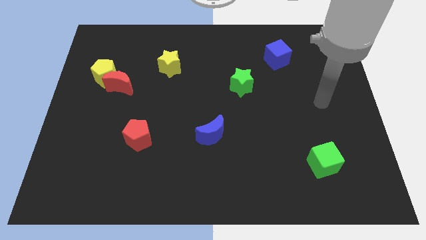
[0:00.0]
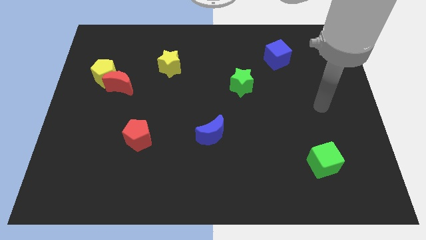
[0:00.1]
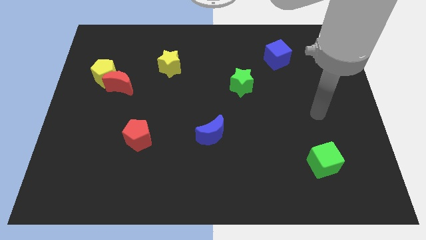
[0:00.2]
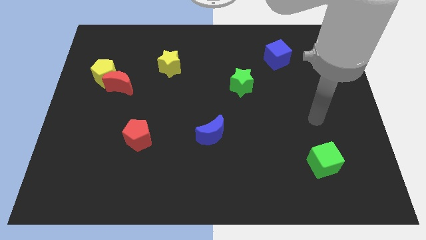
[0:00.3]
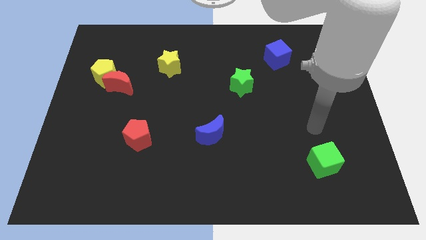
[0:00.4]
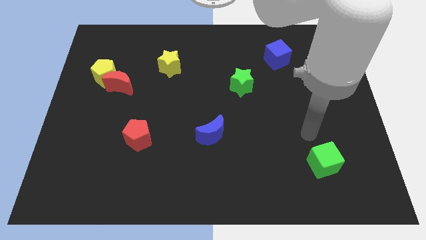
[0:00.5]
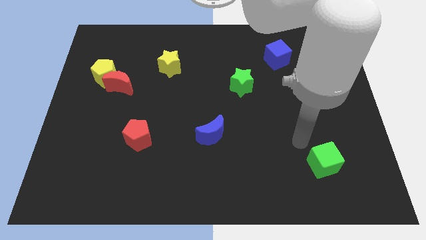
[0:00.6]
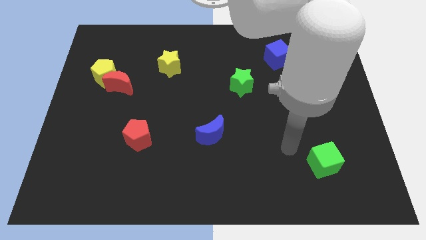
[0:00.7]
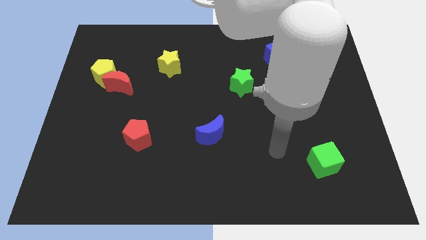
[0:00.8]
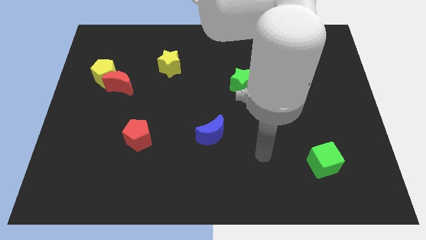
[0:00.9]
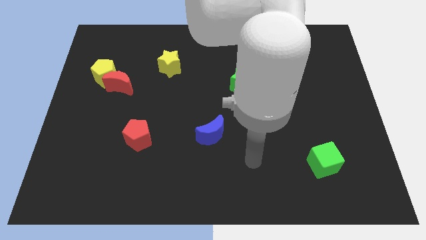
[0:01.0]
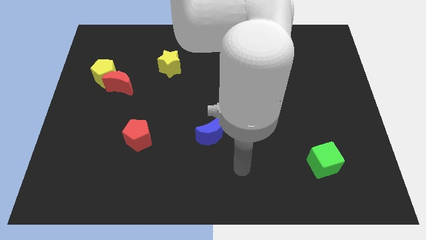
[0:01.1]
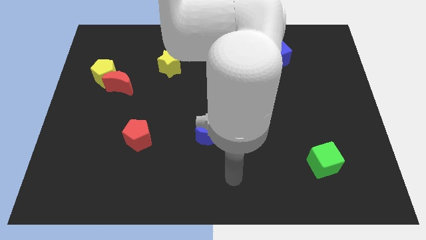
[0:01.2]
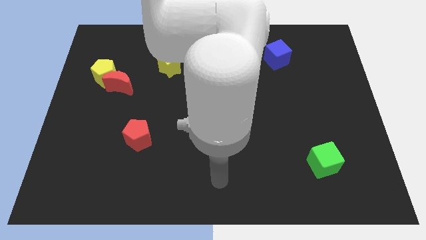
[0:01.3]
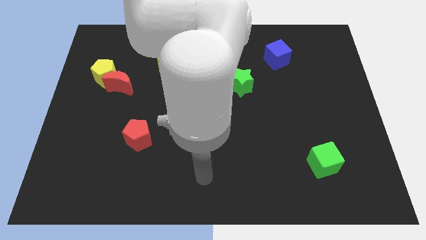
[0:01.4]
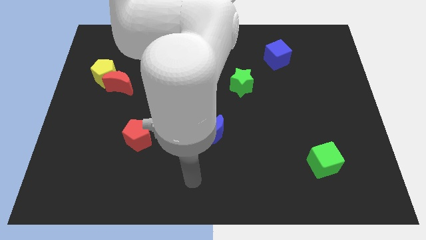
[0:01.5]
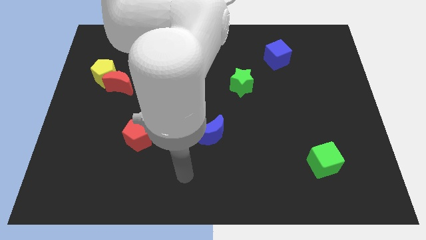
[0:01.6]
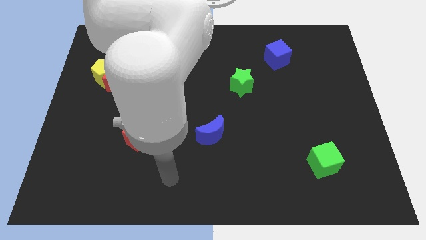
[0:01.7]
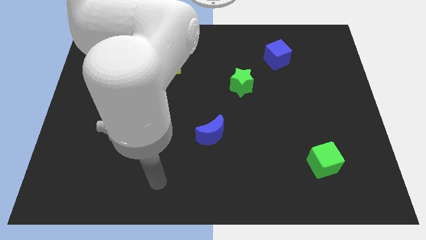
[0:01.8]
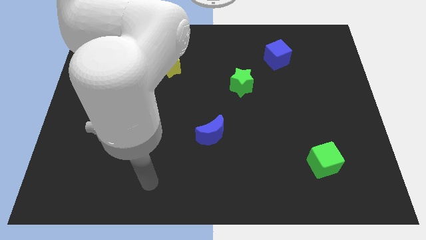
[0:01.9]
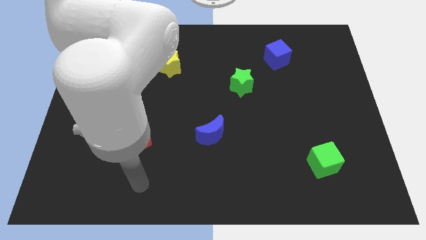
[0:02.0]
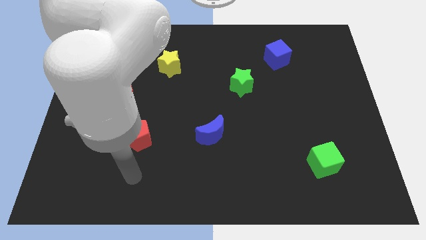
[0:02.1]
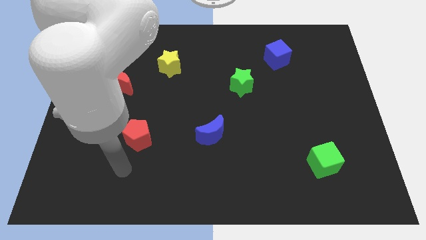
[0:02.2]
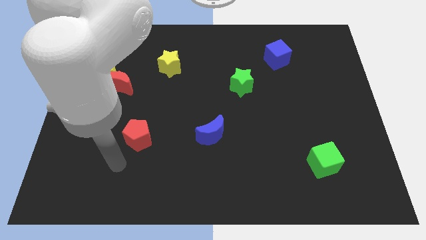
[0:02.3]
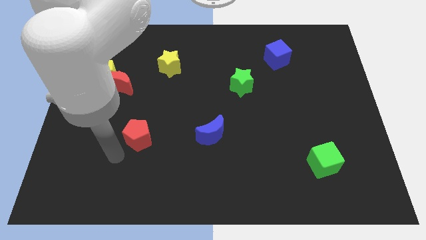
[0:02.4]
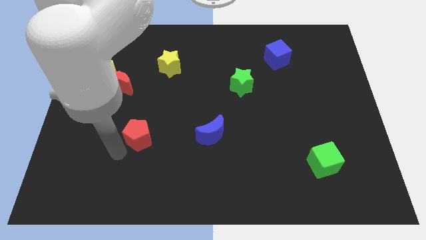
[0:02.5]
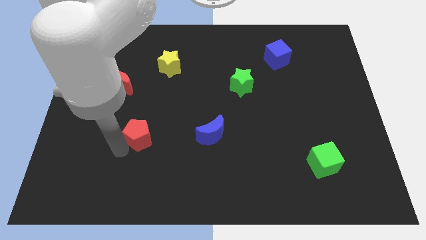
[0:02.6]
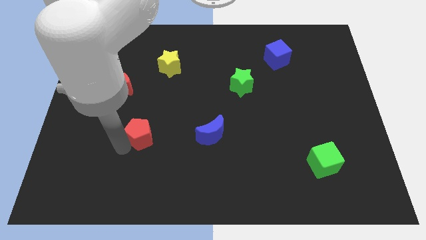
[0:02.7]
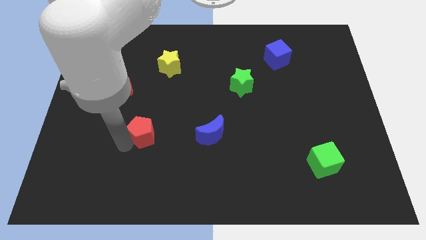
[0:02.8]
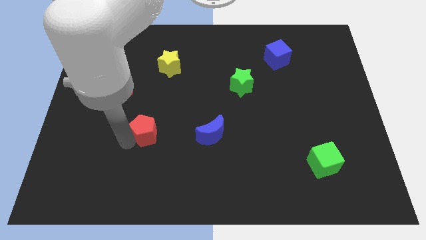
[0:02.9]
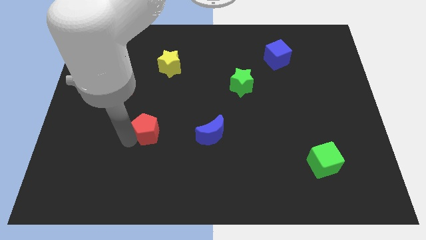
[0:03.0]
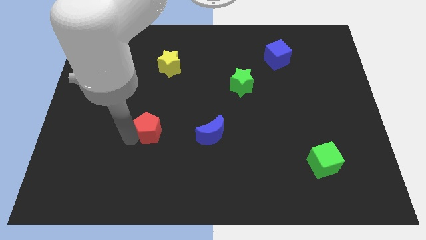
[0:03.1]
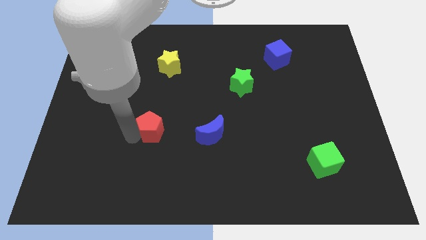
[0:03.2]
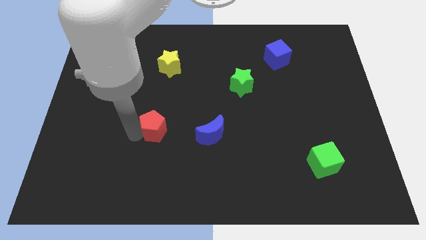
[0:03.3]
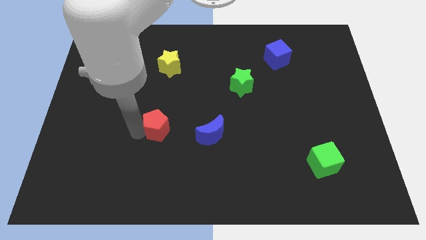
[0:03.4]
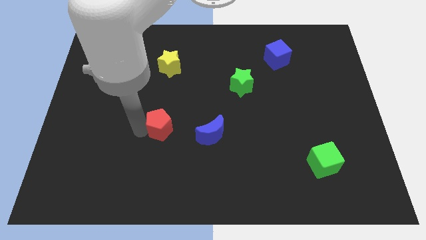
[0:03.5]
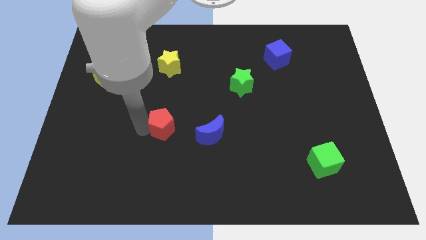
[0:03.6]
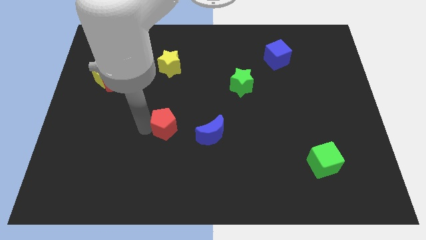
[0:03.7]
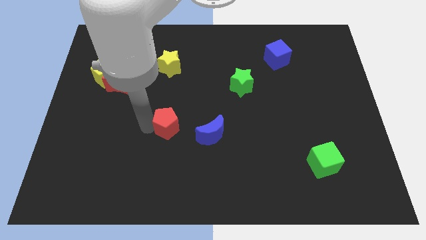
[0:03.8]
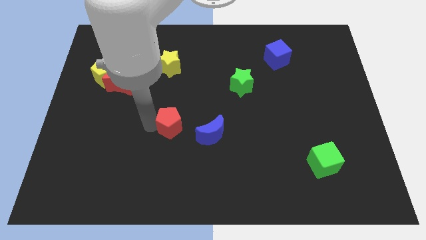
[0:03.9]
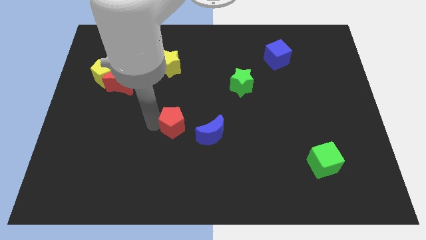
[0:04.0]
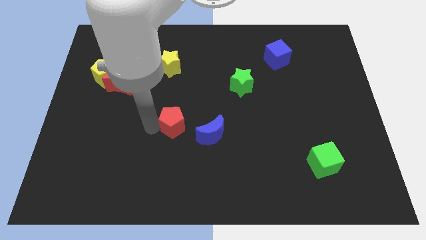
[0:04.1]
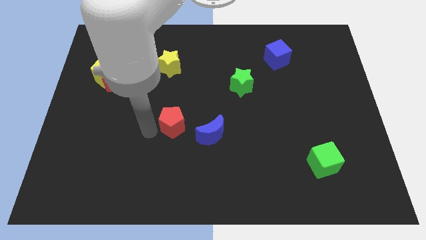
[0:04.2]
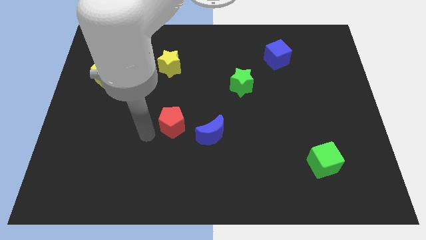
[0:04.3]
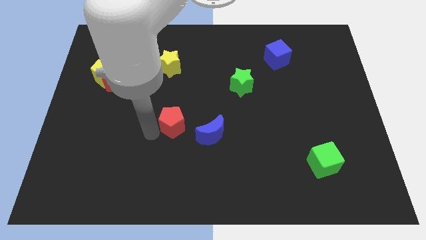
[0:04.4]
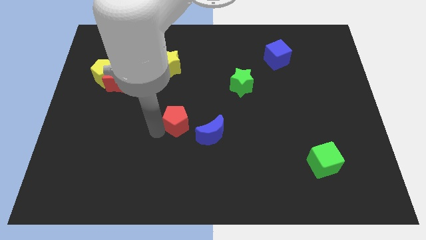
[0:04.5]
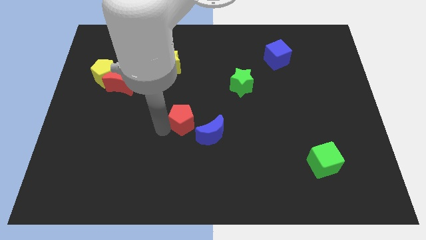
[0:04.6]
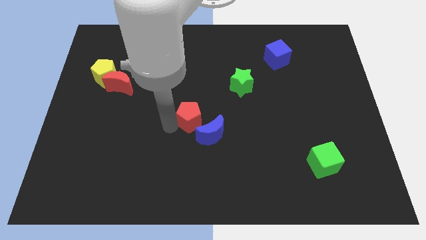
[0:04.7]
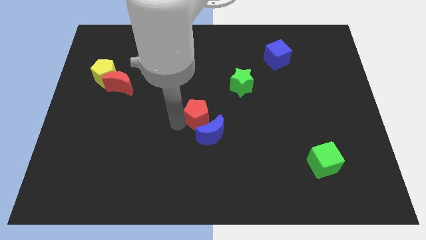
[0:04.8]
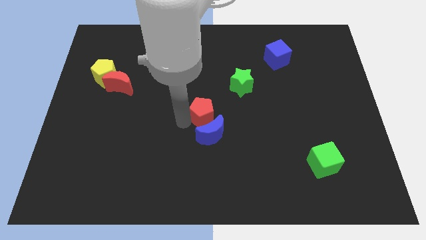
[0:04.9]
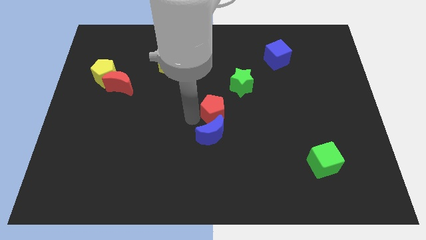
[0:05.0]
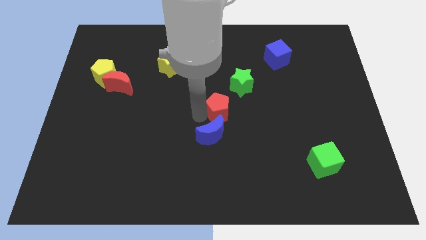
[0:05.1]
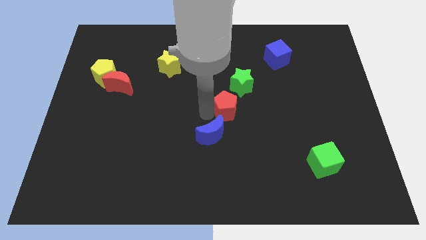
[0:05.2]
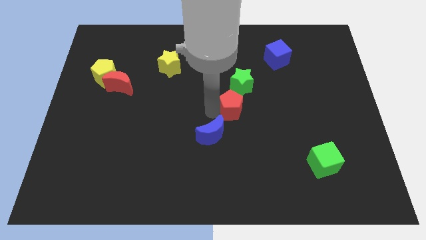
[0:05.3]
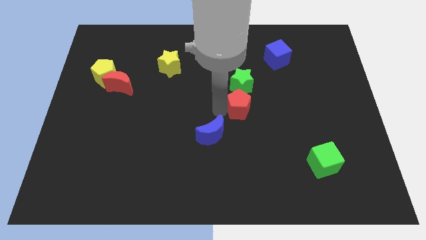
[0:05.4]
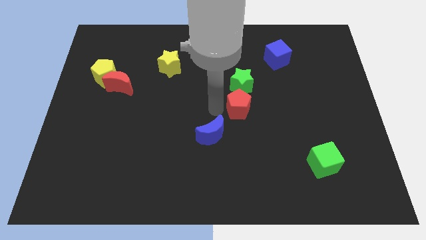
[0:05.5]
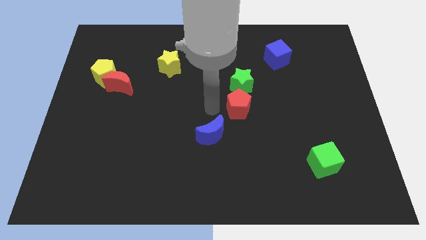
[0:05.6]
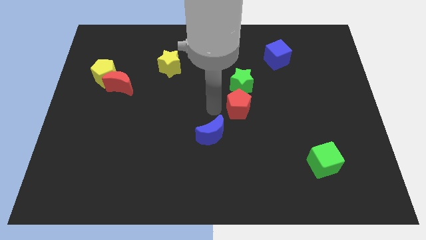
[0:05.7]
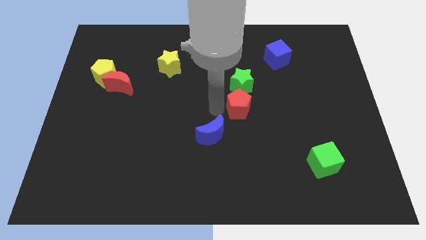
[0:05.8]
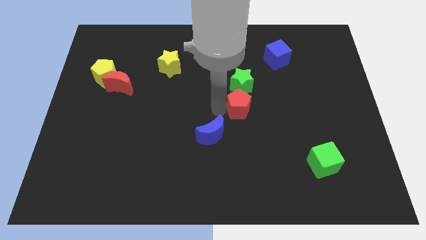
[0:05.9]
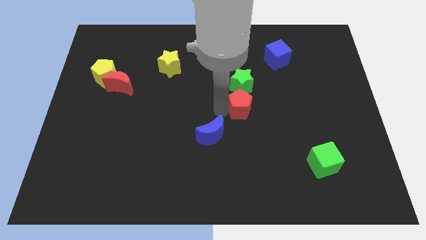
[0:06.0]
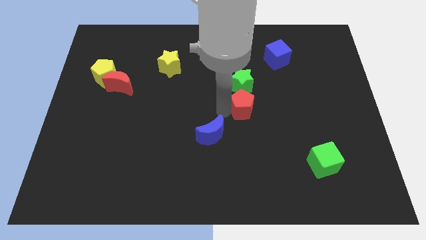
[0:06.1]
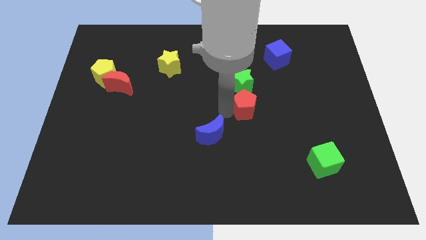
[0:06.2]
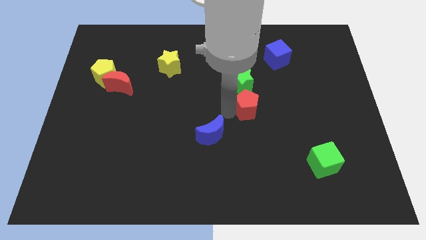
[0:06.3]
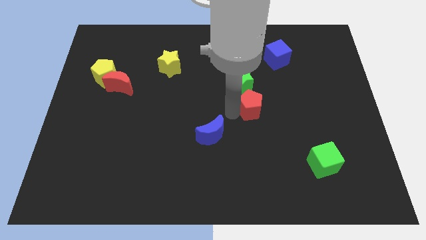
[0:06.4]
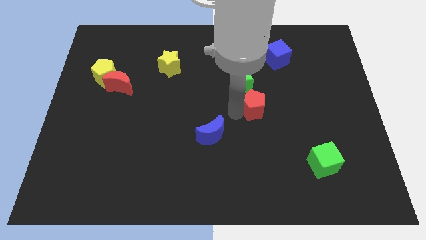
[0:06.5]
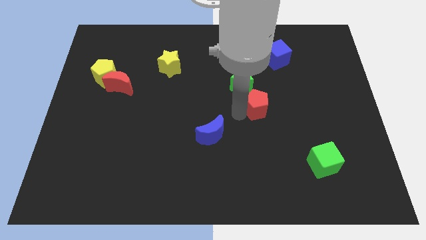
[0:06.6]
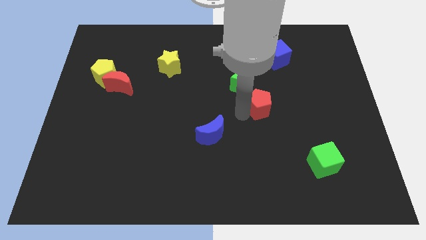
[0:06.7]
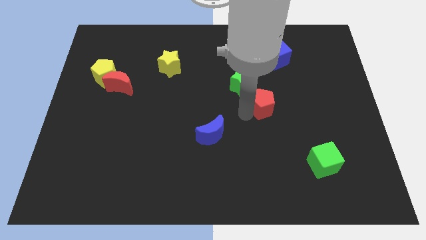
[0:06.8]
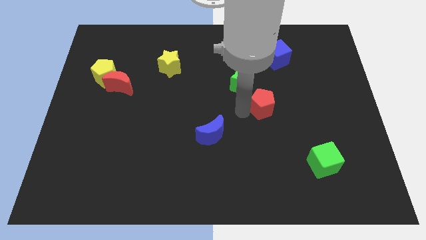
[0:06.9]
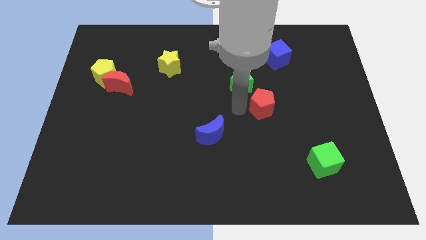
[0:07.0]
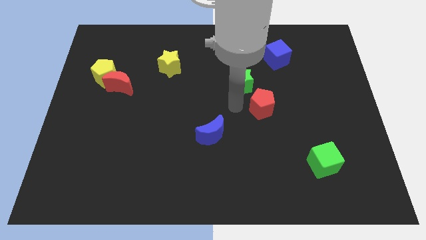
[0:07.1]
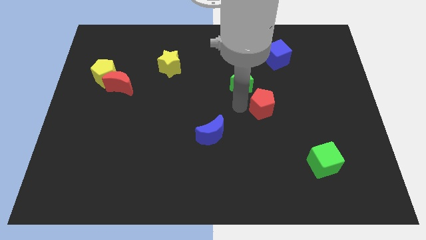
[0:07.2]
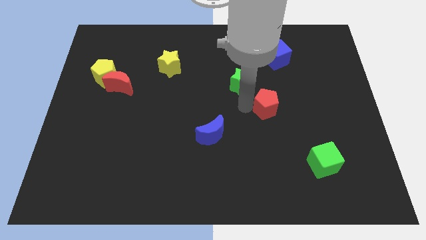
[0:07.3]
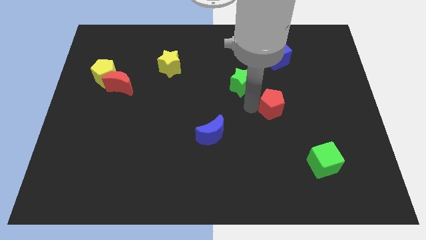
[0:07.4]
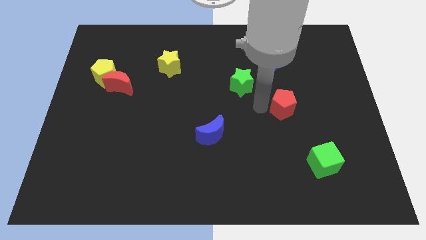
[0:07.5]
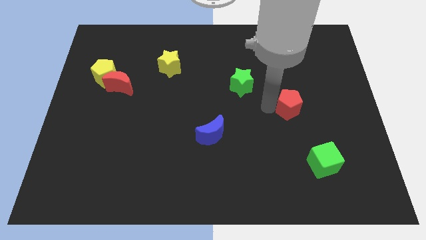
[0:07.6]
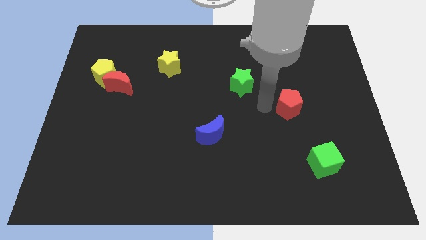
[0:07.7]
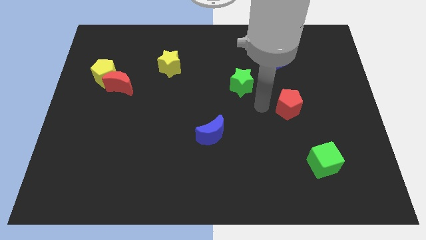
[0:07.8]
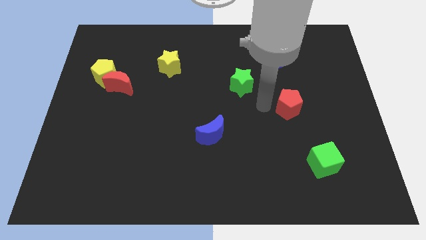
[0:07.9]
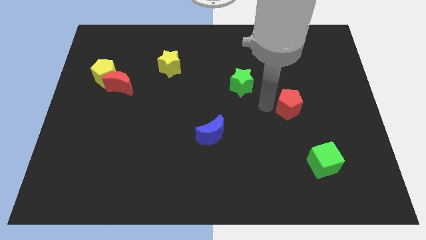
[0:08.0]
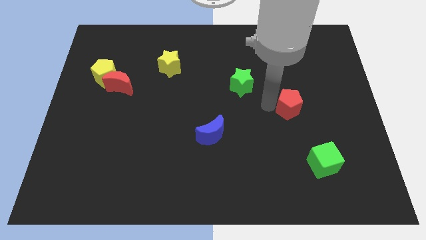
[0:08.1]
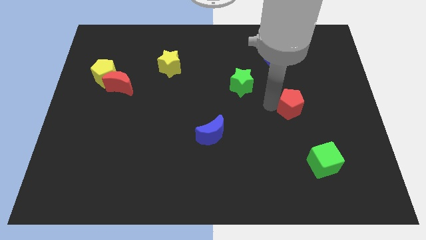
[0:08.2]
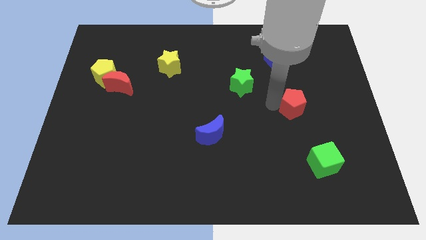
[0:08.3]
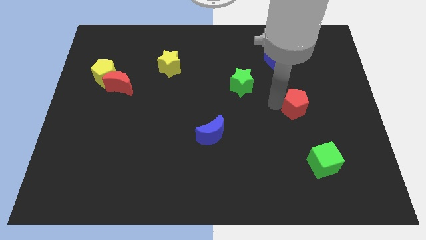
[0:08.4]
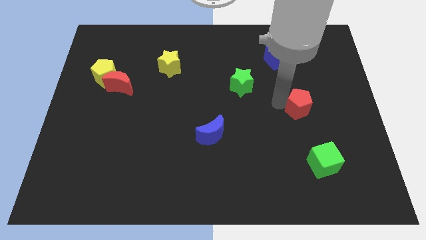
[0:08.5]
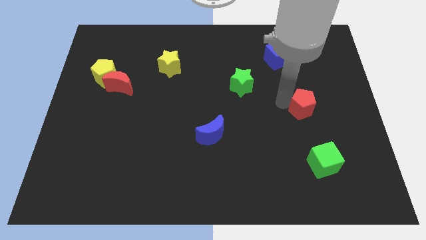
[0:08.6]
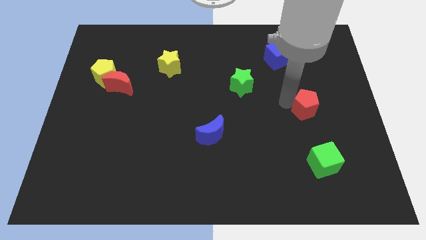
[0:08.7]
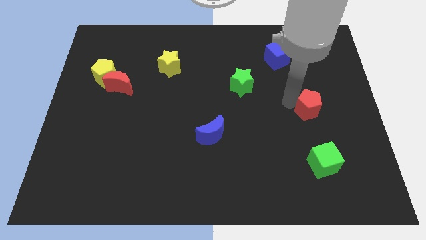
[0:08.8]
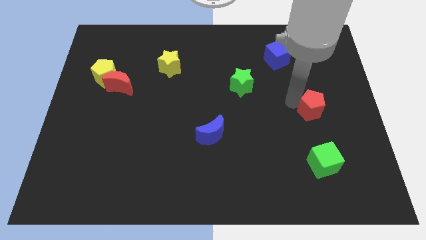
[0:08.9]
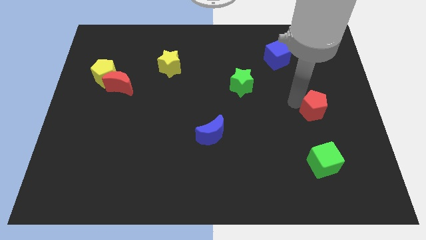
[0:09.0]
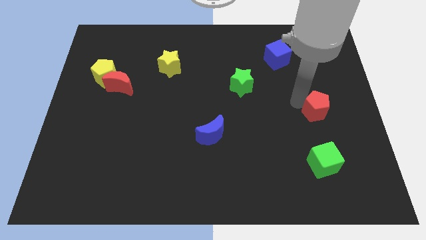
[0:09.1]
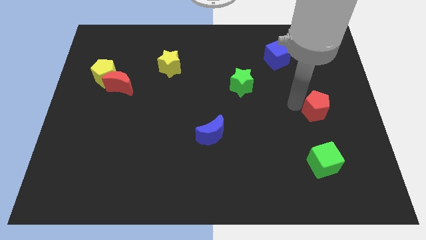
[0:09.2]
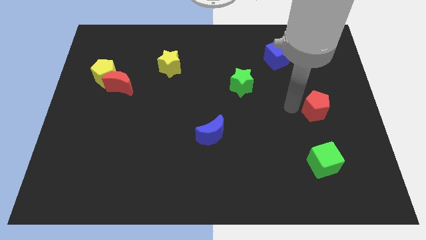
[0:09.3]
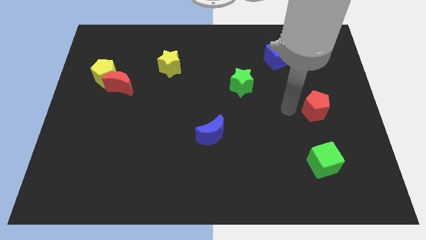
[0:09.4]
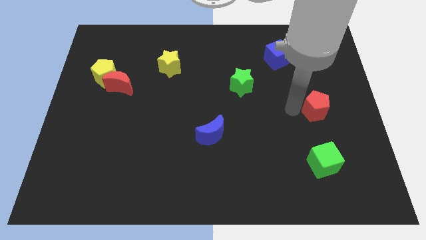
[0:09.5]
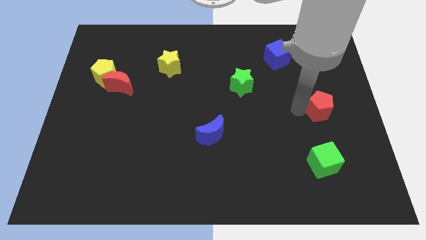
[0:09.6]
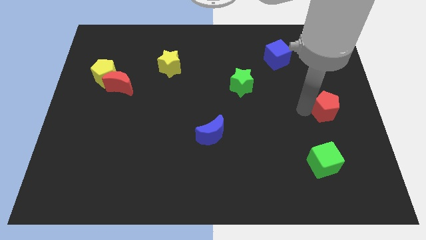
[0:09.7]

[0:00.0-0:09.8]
slide the red pentagon to the center right
